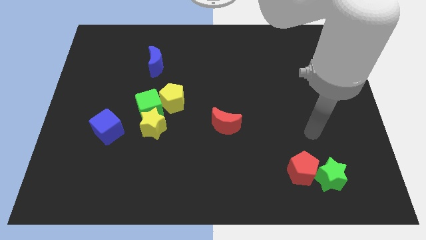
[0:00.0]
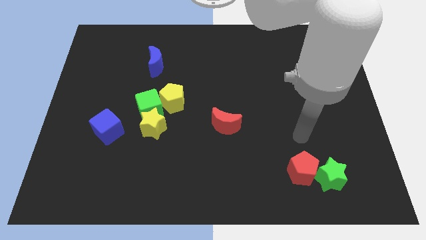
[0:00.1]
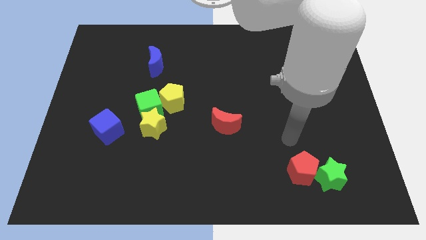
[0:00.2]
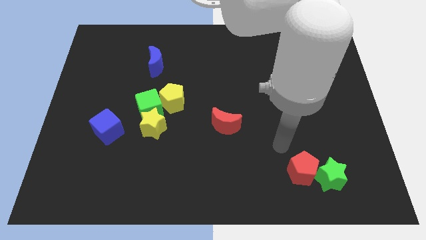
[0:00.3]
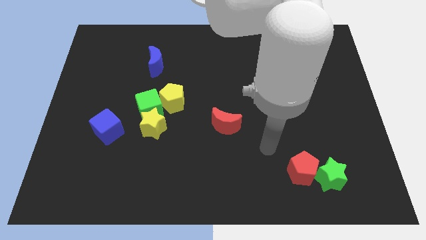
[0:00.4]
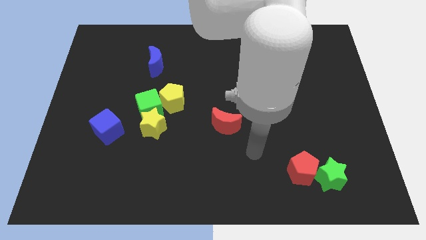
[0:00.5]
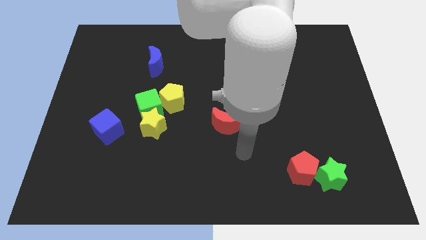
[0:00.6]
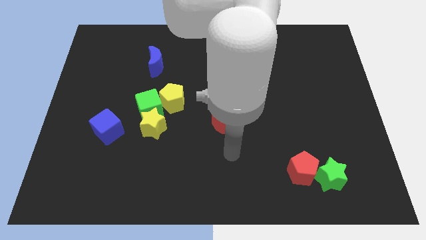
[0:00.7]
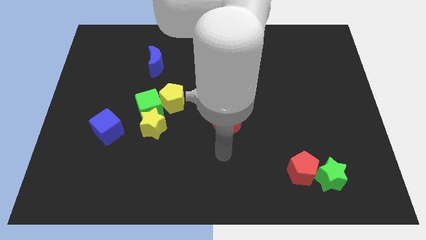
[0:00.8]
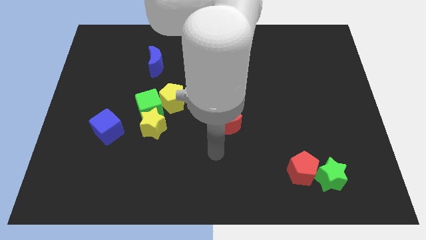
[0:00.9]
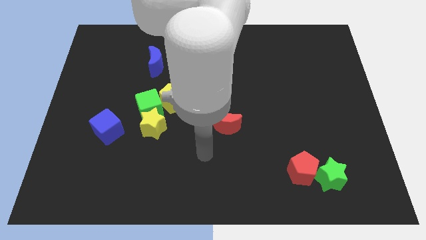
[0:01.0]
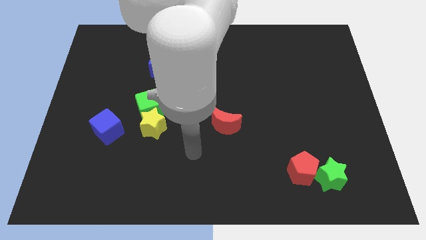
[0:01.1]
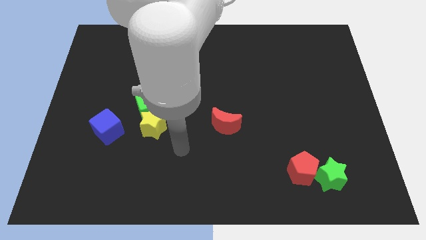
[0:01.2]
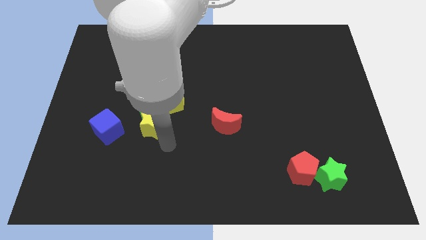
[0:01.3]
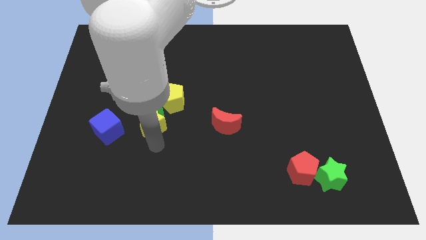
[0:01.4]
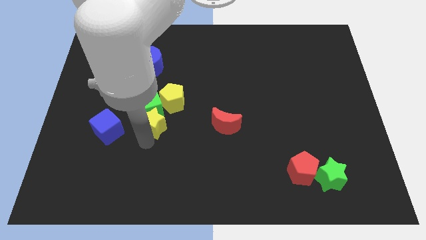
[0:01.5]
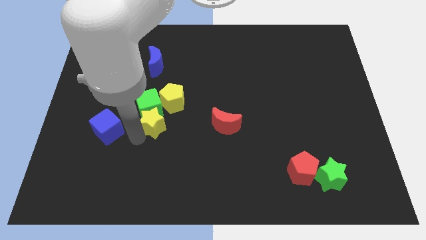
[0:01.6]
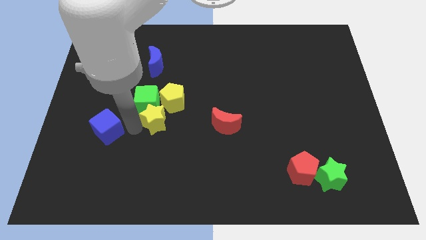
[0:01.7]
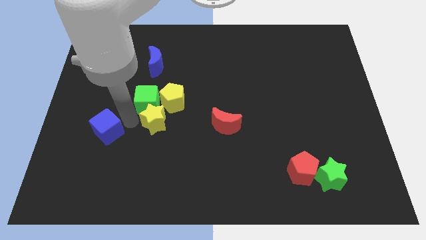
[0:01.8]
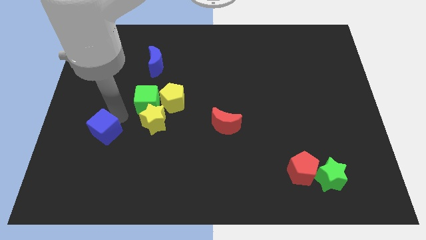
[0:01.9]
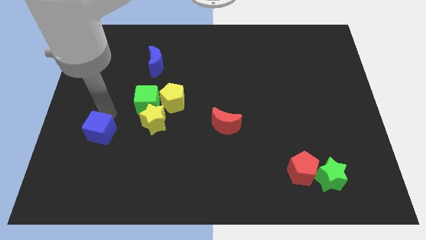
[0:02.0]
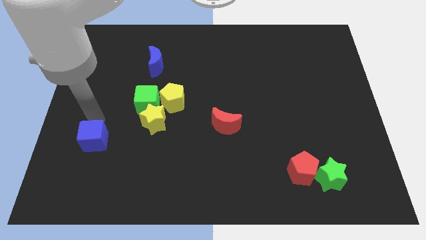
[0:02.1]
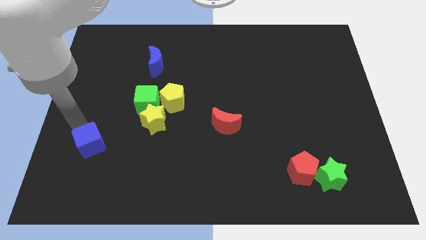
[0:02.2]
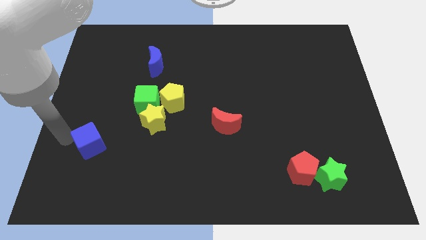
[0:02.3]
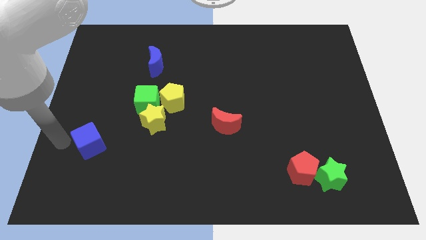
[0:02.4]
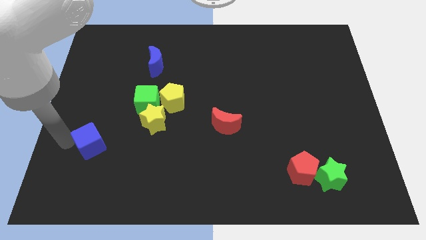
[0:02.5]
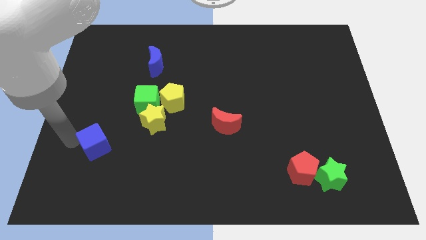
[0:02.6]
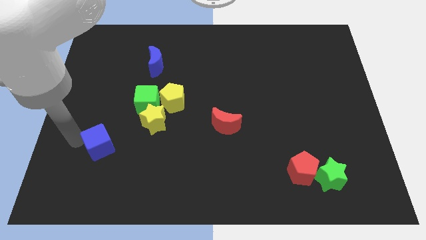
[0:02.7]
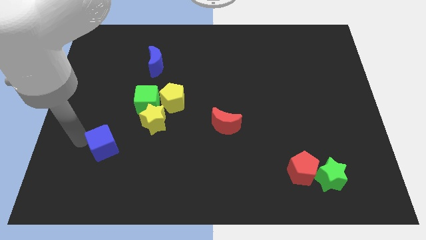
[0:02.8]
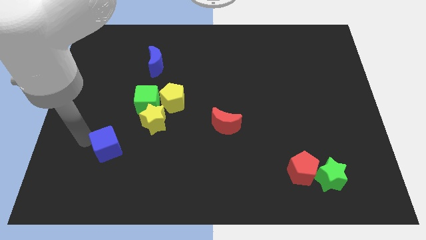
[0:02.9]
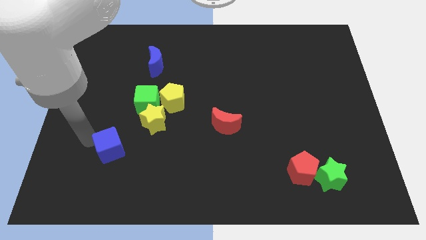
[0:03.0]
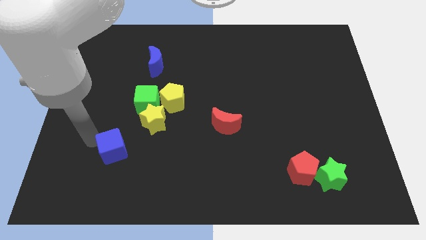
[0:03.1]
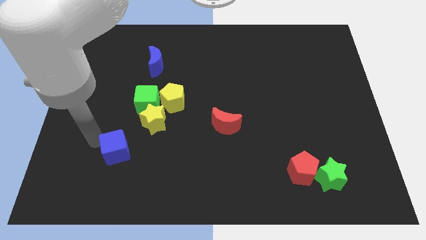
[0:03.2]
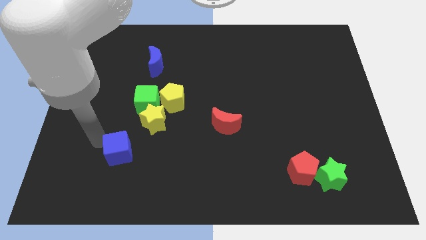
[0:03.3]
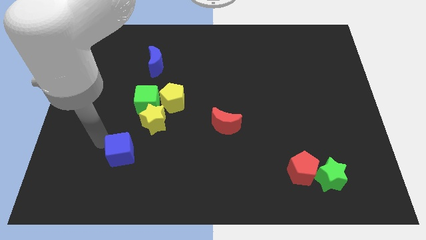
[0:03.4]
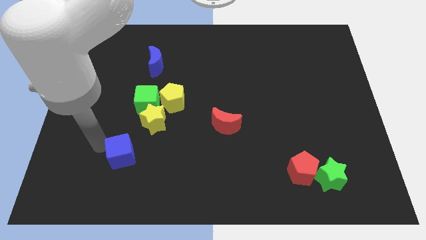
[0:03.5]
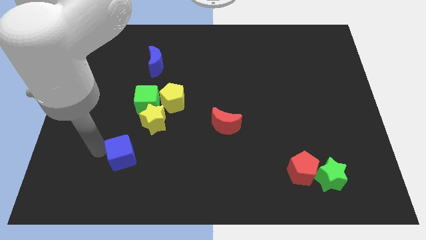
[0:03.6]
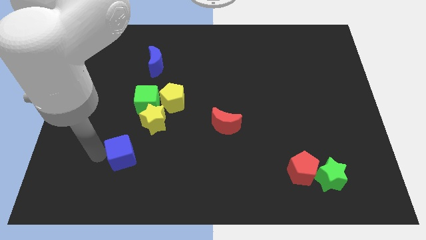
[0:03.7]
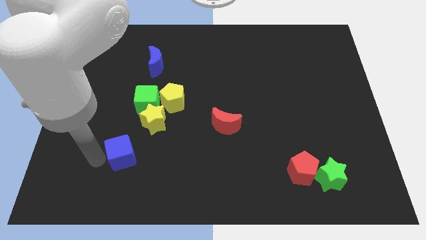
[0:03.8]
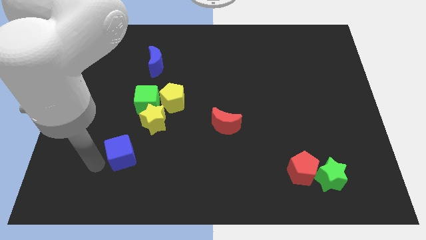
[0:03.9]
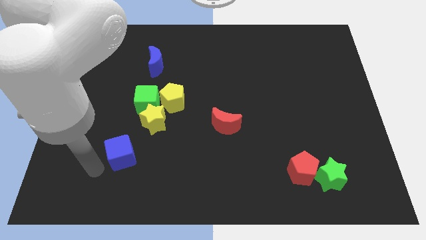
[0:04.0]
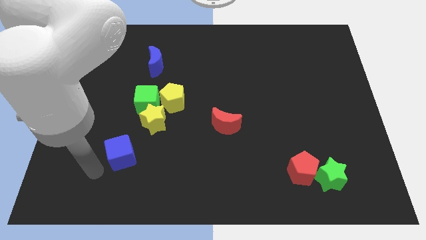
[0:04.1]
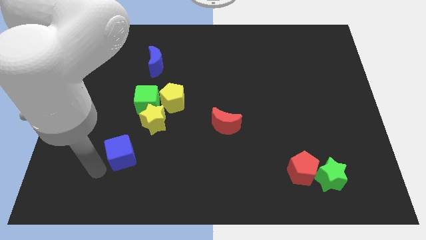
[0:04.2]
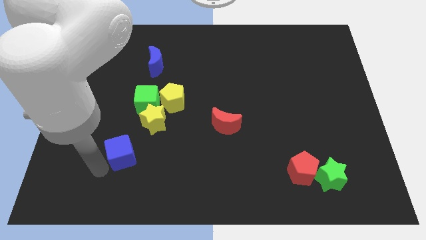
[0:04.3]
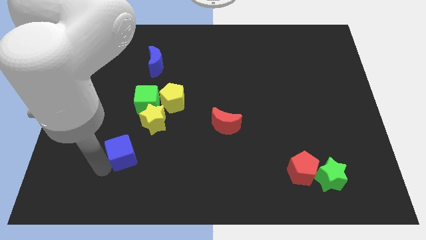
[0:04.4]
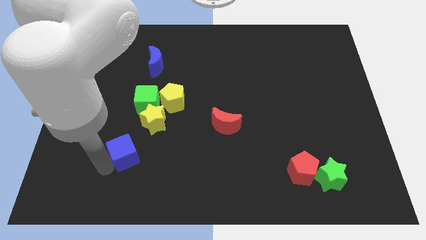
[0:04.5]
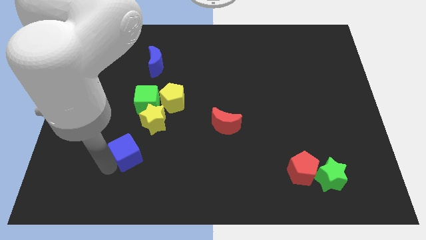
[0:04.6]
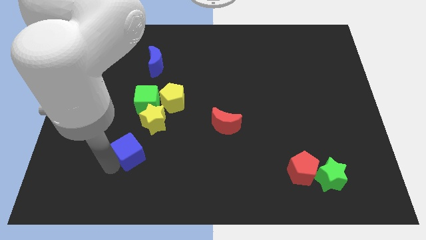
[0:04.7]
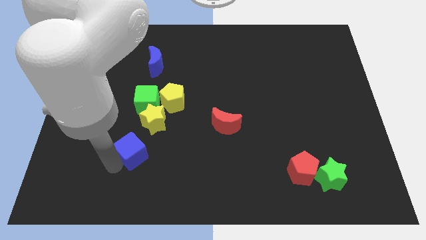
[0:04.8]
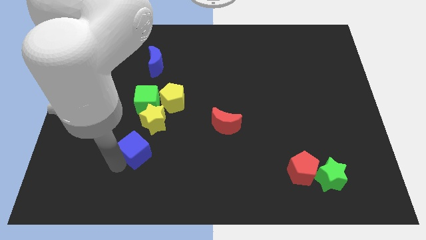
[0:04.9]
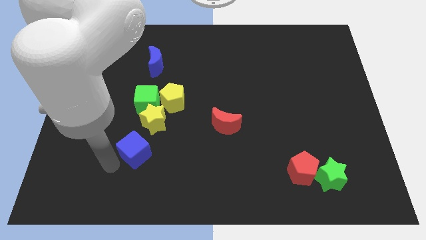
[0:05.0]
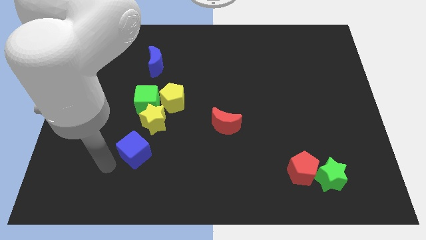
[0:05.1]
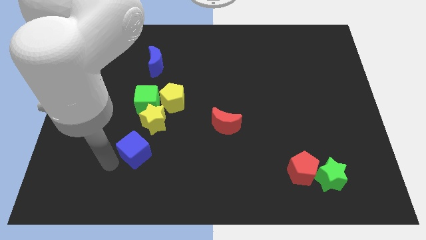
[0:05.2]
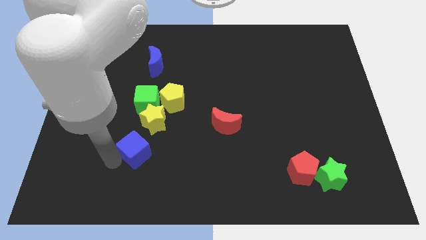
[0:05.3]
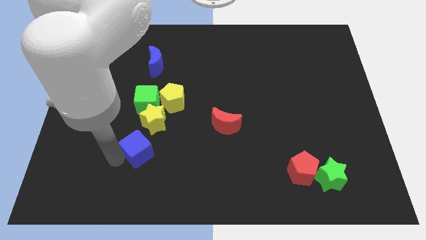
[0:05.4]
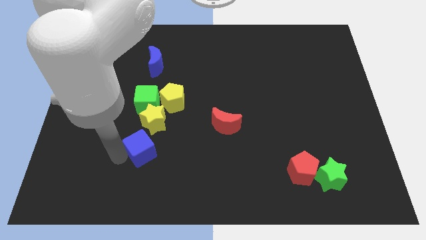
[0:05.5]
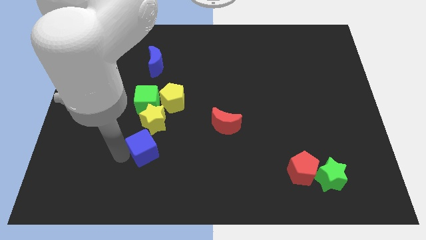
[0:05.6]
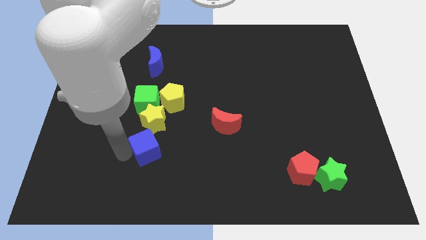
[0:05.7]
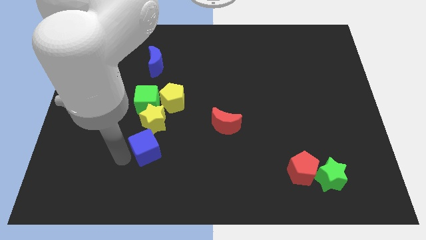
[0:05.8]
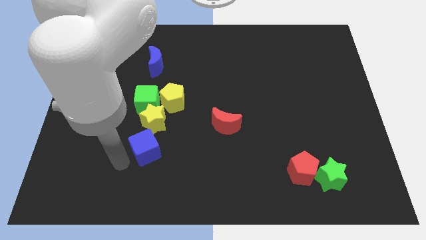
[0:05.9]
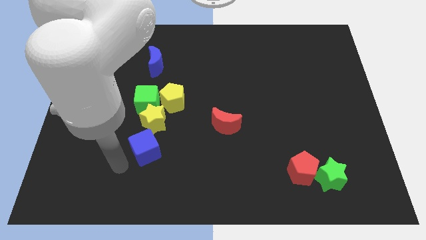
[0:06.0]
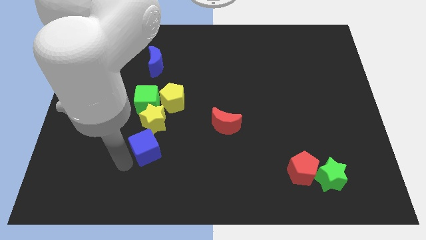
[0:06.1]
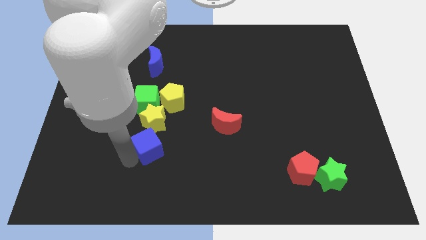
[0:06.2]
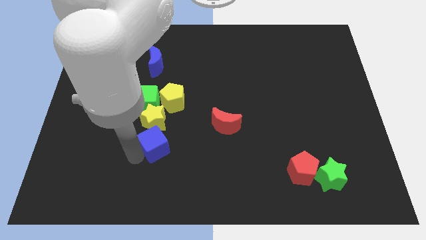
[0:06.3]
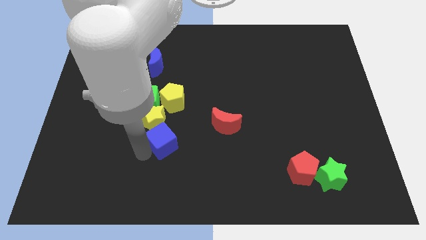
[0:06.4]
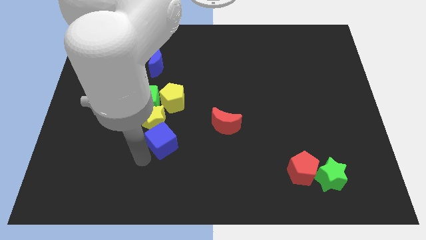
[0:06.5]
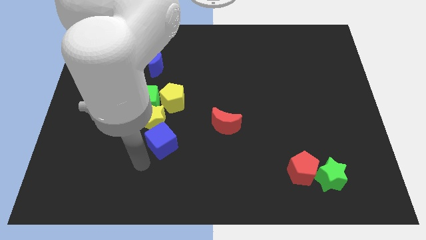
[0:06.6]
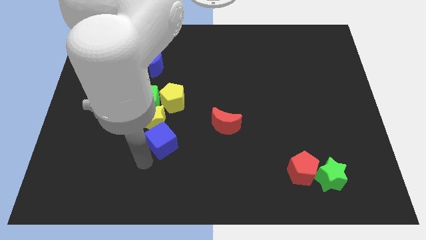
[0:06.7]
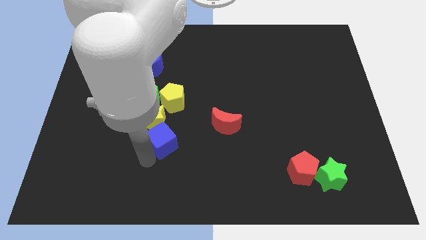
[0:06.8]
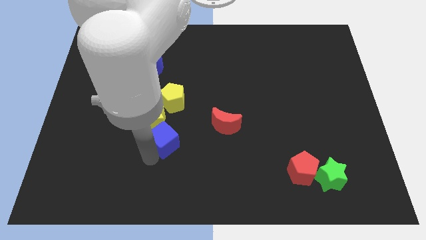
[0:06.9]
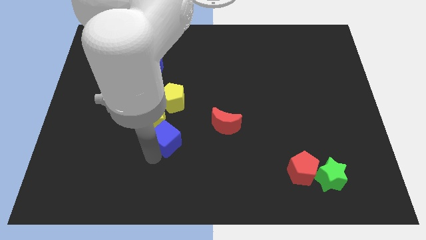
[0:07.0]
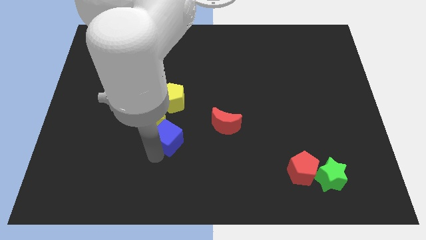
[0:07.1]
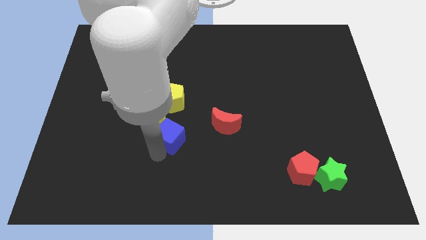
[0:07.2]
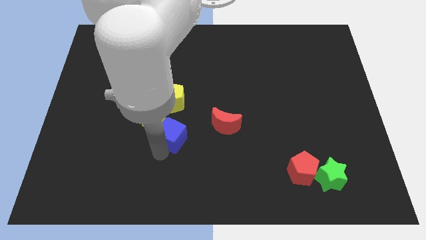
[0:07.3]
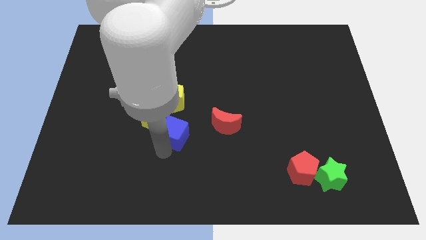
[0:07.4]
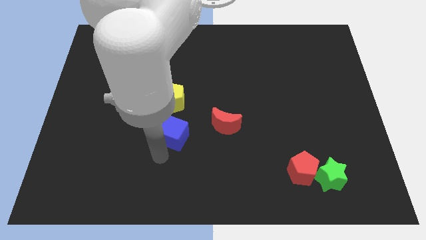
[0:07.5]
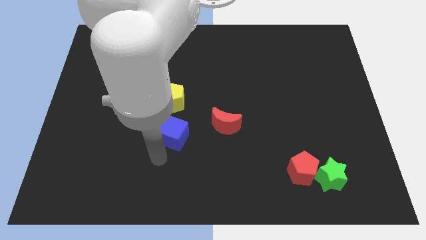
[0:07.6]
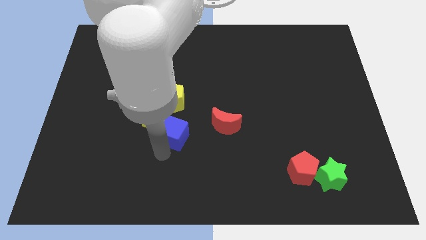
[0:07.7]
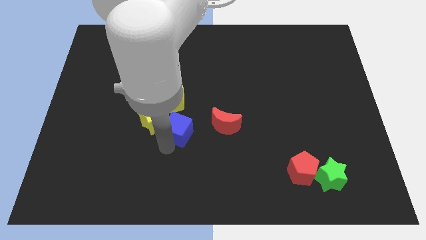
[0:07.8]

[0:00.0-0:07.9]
move the blue cube to the middle of the board
